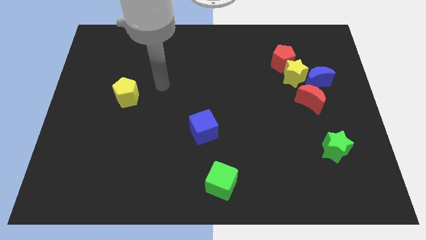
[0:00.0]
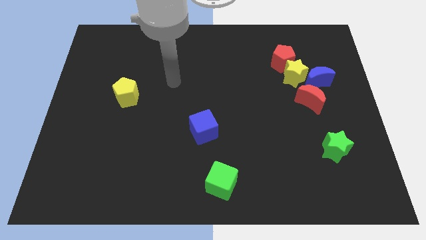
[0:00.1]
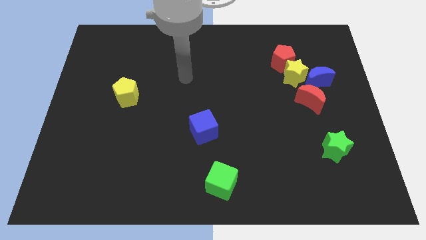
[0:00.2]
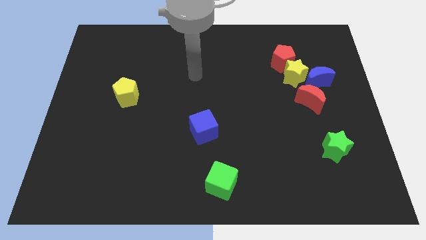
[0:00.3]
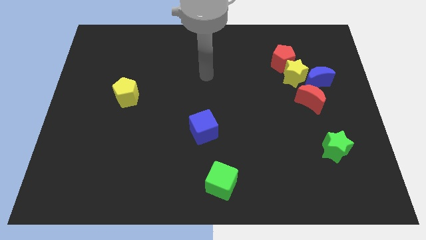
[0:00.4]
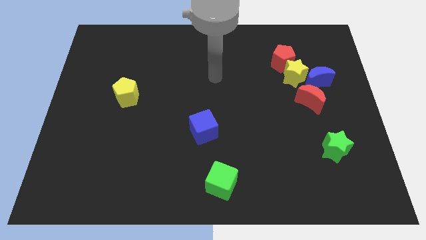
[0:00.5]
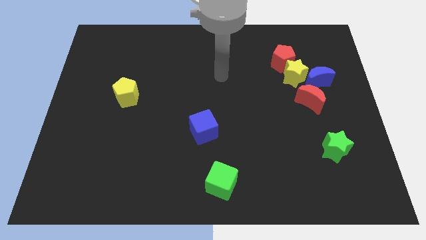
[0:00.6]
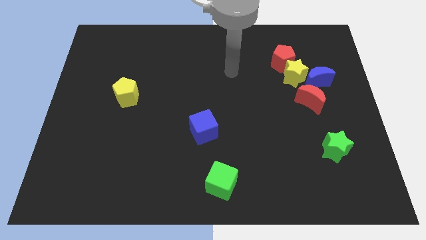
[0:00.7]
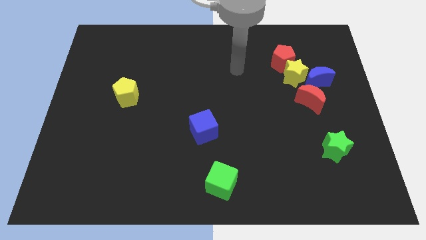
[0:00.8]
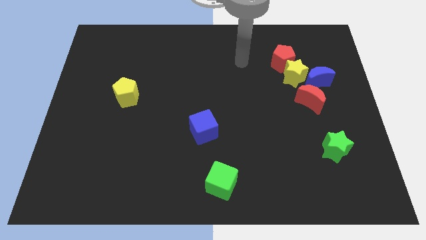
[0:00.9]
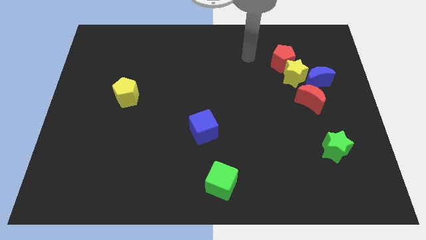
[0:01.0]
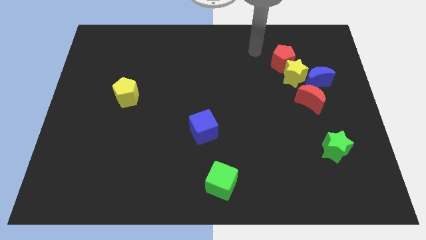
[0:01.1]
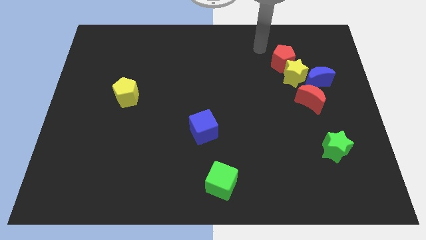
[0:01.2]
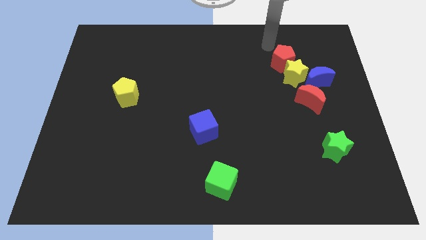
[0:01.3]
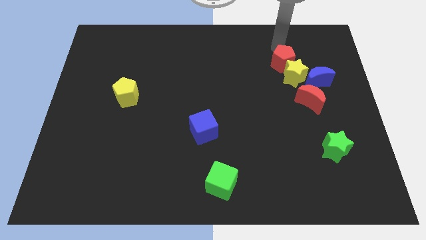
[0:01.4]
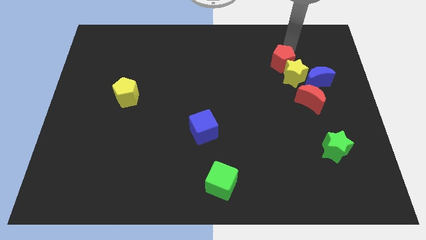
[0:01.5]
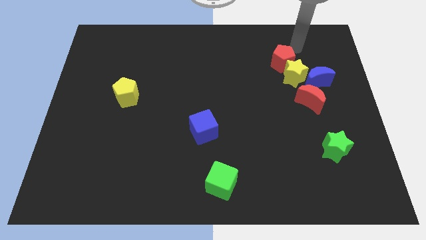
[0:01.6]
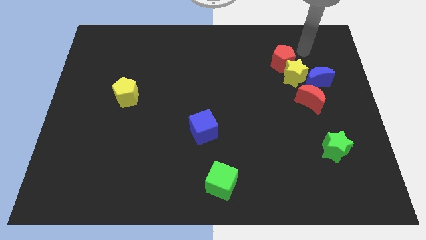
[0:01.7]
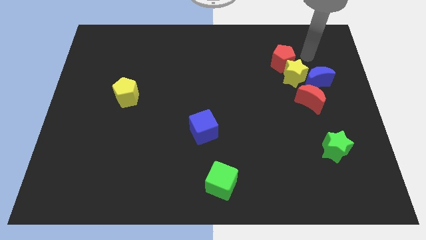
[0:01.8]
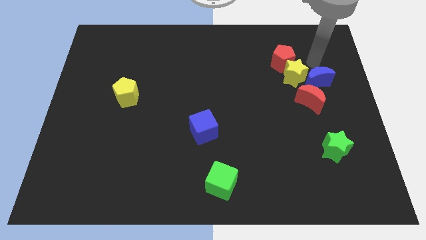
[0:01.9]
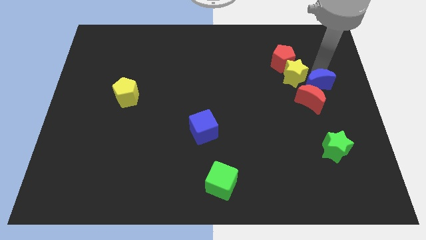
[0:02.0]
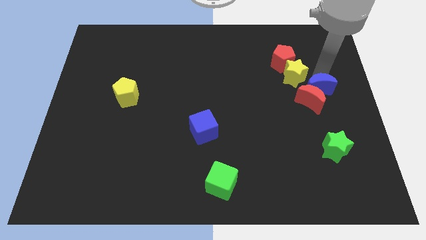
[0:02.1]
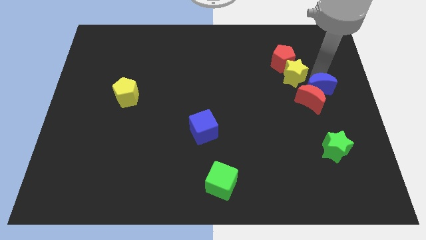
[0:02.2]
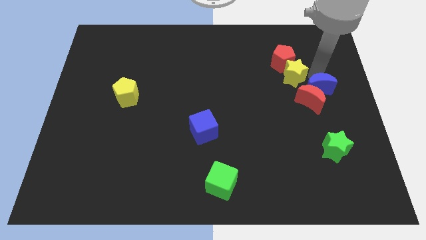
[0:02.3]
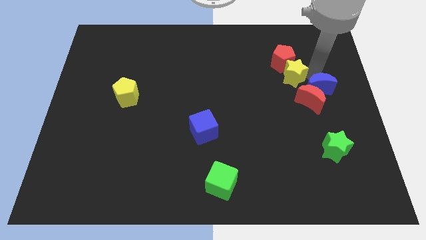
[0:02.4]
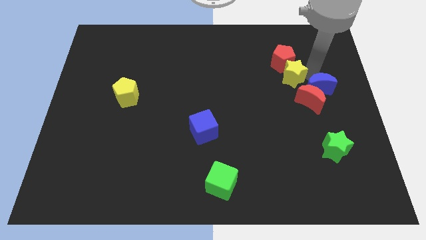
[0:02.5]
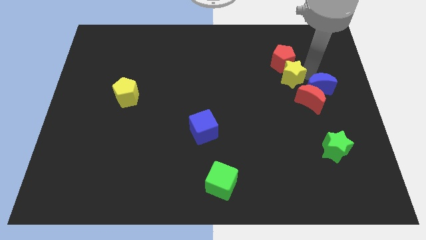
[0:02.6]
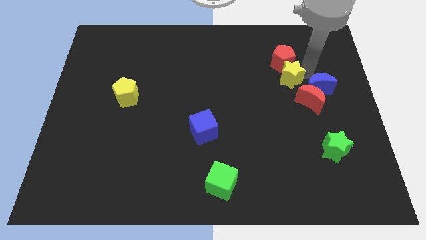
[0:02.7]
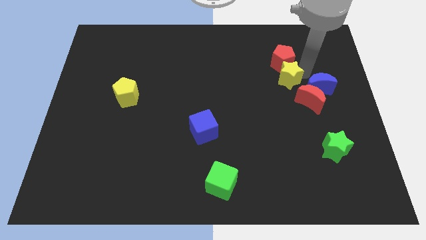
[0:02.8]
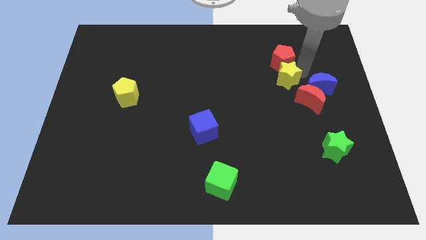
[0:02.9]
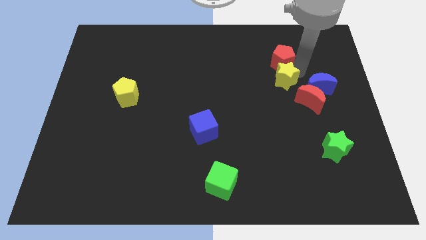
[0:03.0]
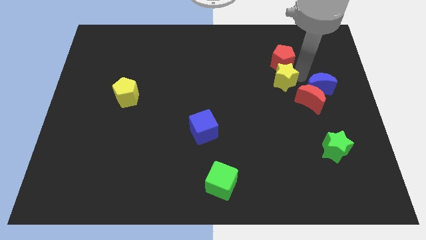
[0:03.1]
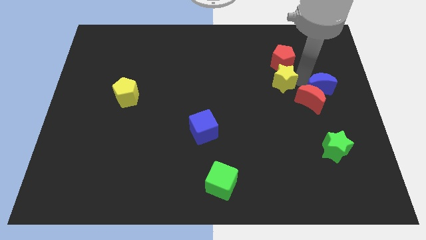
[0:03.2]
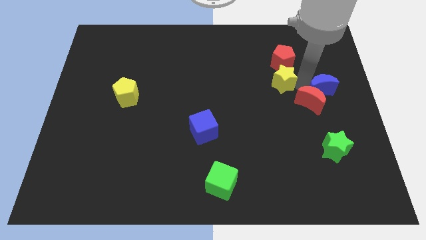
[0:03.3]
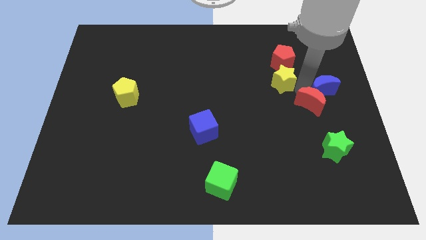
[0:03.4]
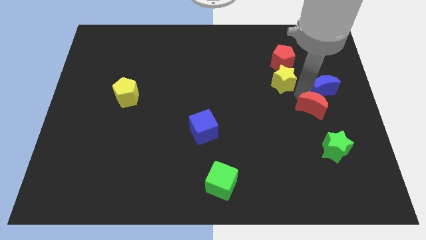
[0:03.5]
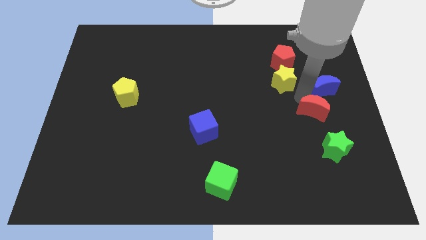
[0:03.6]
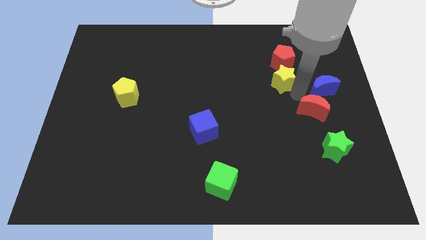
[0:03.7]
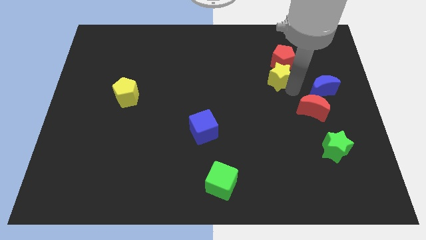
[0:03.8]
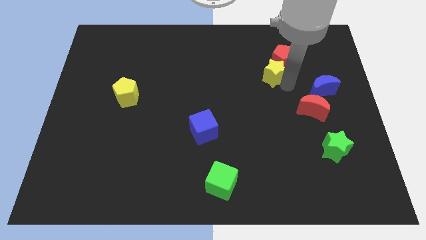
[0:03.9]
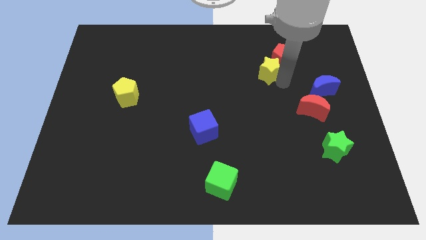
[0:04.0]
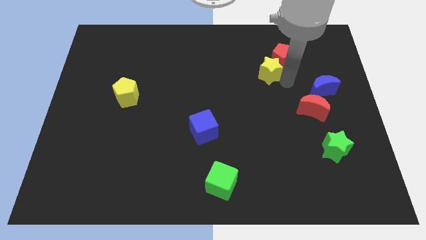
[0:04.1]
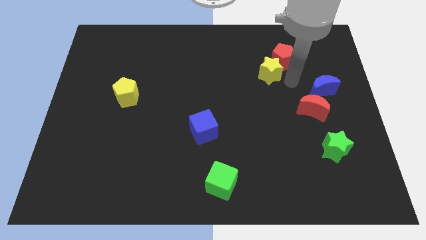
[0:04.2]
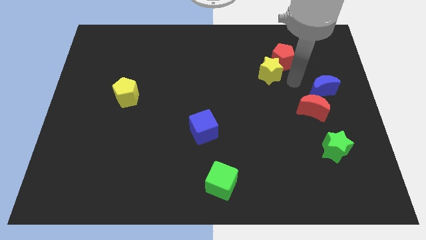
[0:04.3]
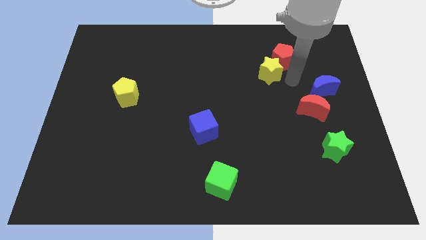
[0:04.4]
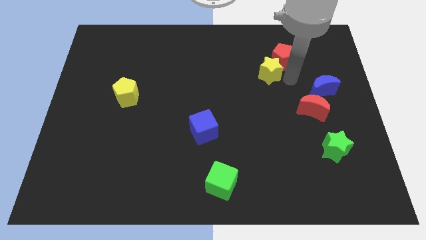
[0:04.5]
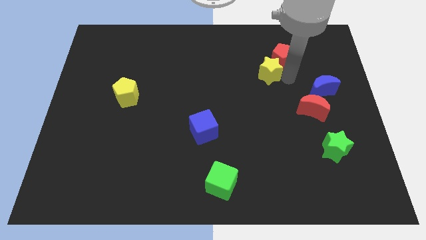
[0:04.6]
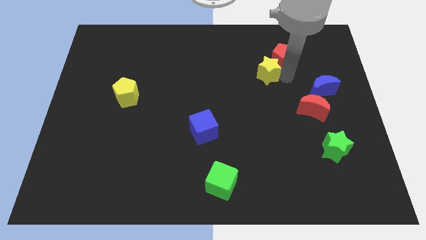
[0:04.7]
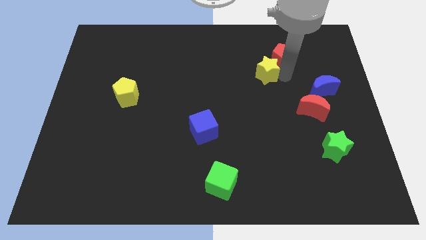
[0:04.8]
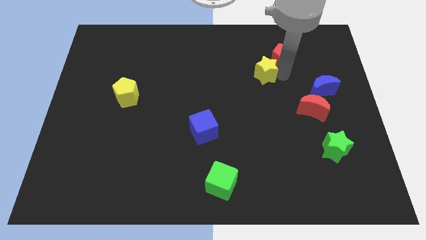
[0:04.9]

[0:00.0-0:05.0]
separate the yellow star from the group

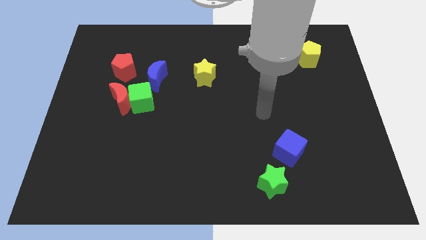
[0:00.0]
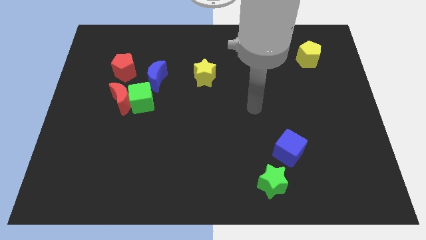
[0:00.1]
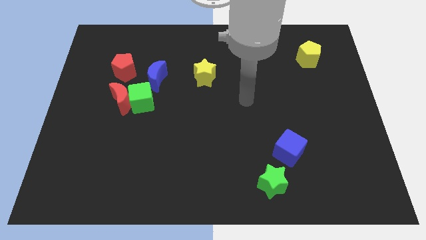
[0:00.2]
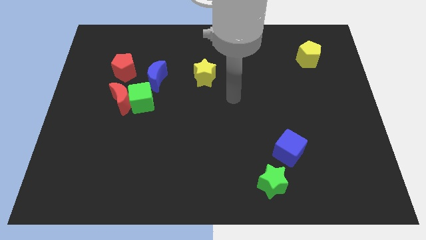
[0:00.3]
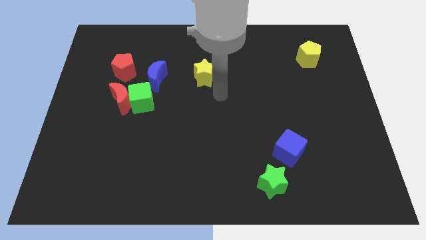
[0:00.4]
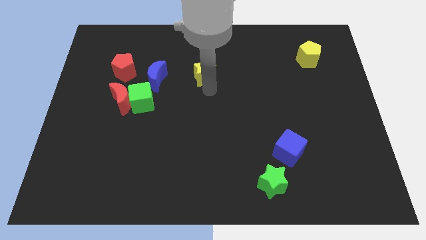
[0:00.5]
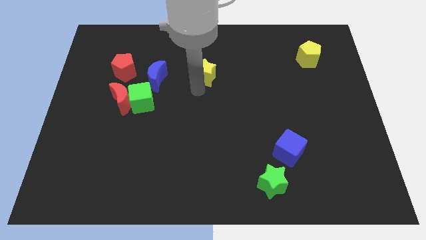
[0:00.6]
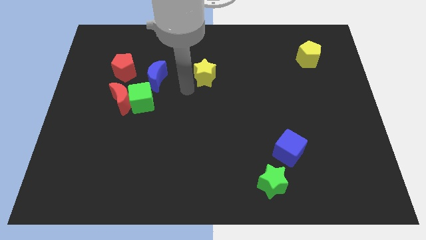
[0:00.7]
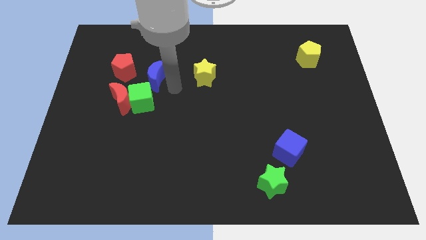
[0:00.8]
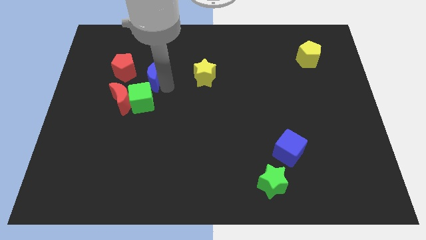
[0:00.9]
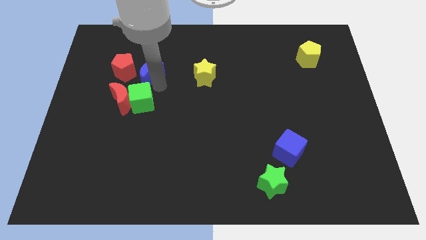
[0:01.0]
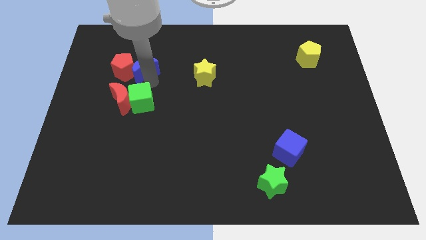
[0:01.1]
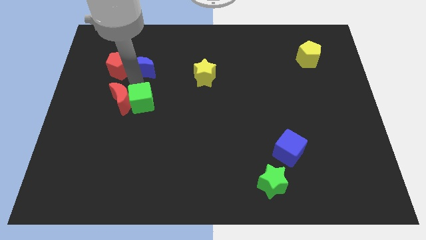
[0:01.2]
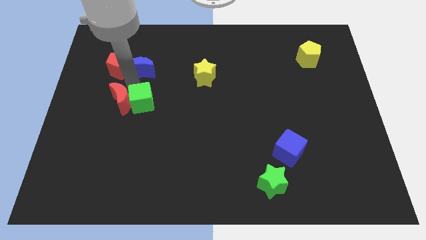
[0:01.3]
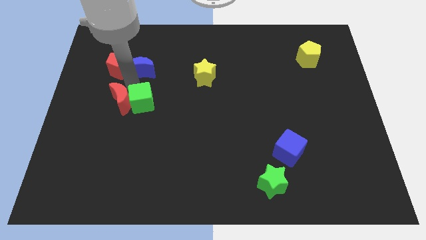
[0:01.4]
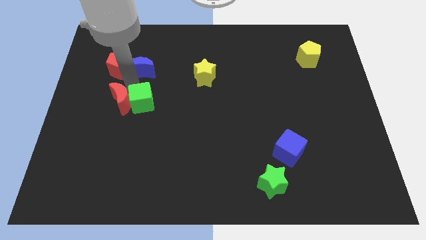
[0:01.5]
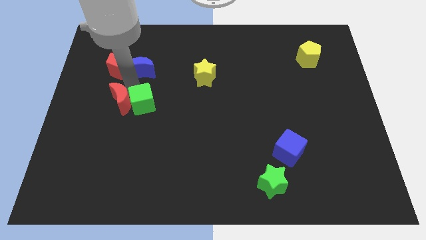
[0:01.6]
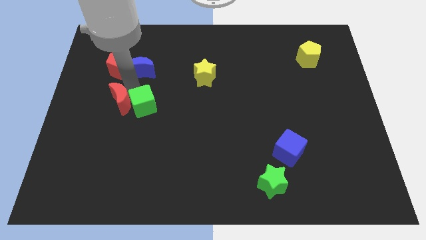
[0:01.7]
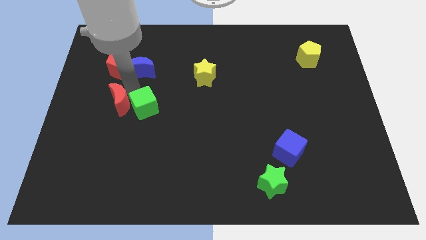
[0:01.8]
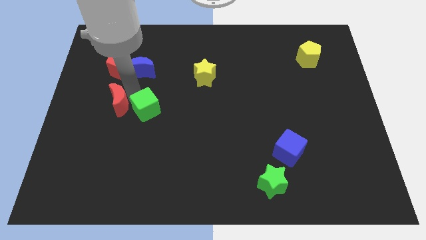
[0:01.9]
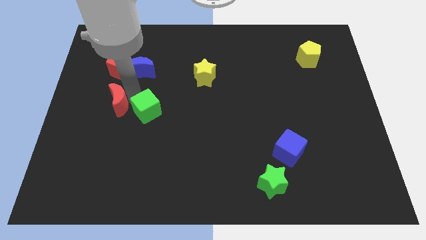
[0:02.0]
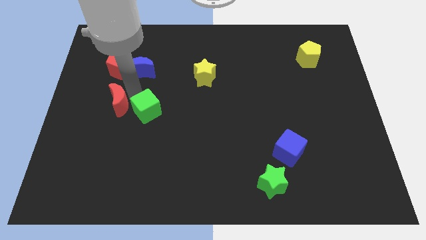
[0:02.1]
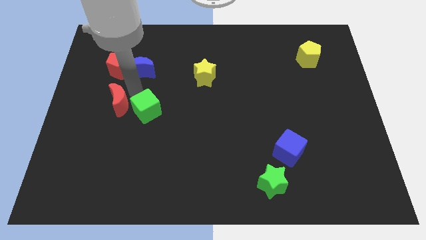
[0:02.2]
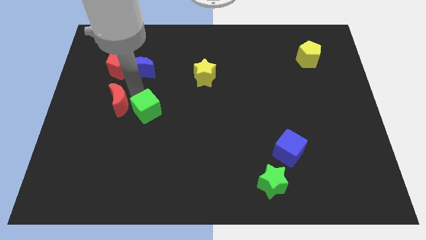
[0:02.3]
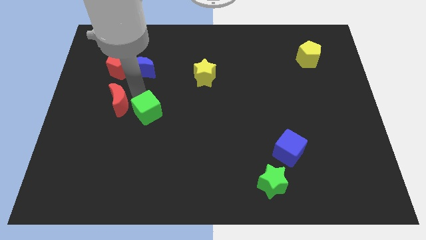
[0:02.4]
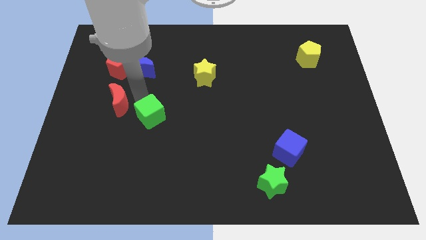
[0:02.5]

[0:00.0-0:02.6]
pull the green cube apart from the red moon and blue moon

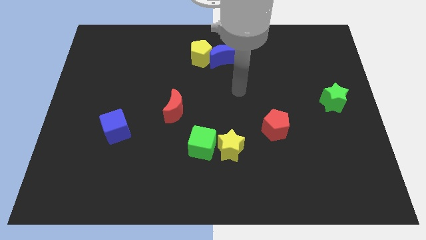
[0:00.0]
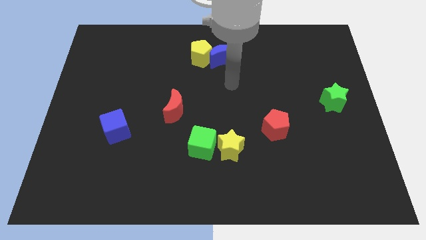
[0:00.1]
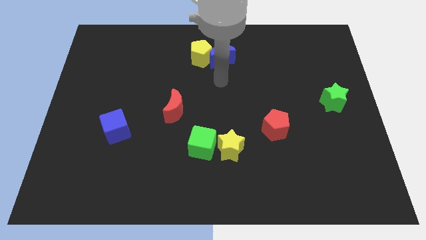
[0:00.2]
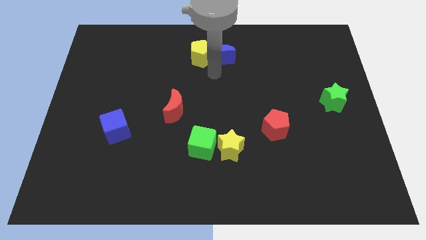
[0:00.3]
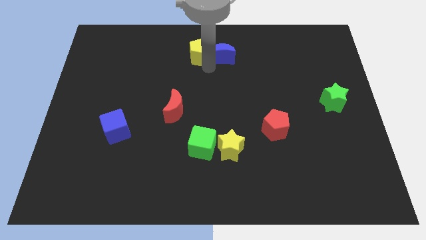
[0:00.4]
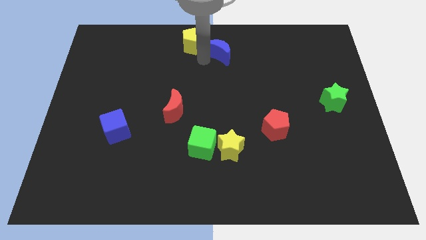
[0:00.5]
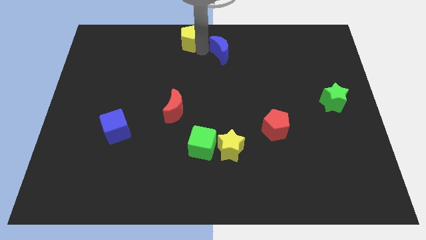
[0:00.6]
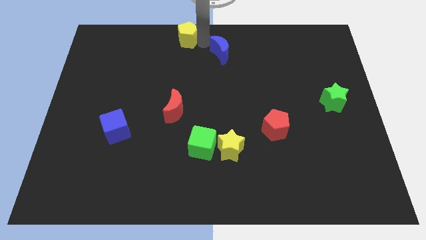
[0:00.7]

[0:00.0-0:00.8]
move the blue moon away from the yellow pentagon

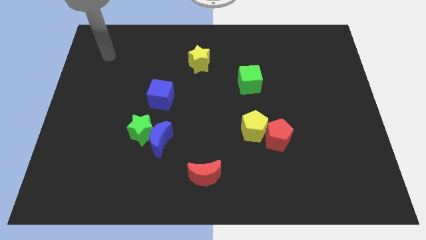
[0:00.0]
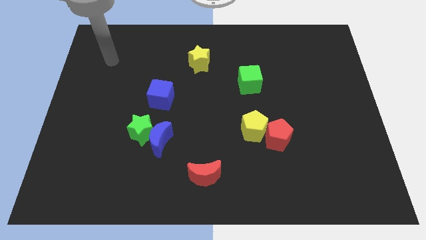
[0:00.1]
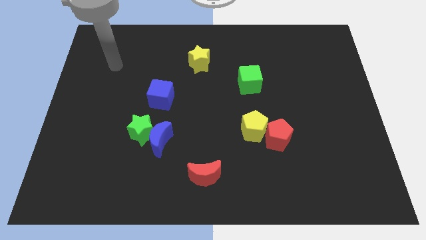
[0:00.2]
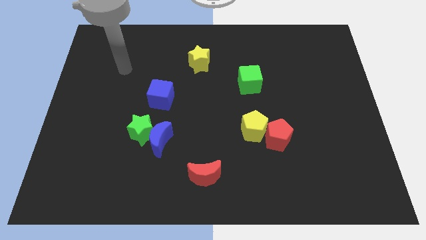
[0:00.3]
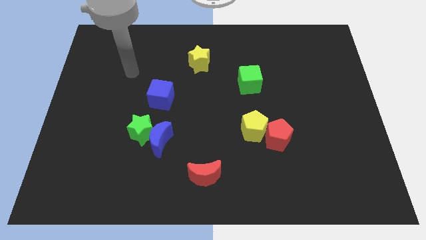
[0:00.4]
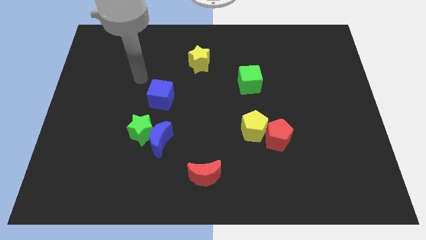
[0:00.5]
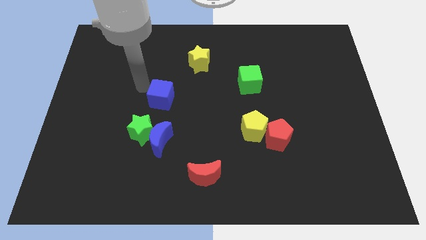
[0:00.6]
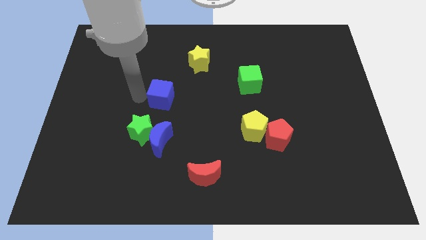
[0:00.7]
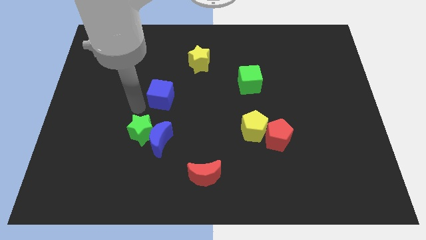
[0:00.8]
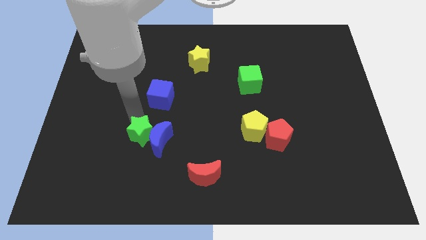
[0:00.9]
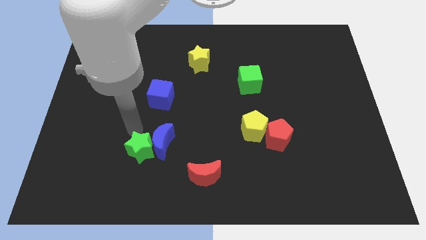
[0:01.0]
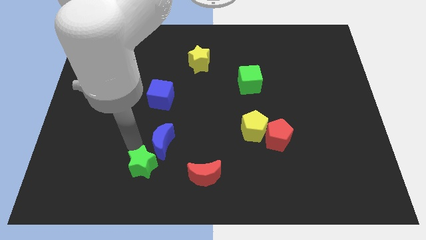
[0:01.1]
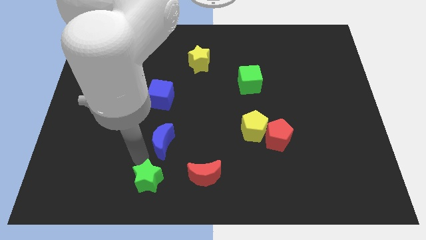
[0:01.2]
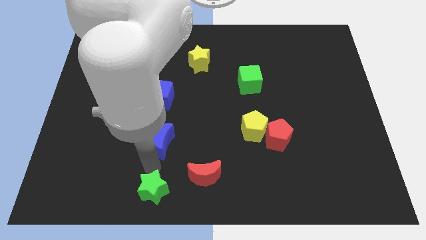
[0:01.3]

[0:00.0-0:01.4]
pull the blue moon apart from the green star
